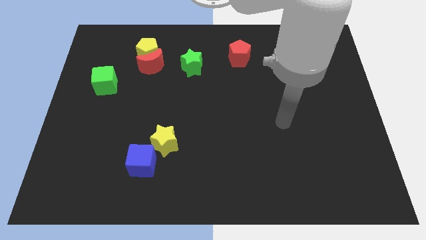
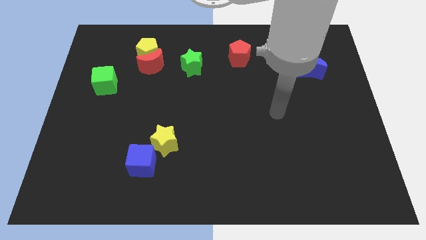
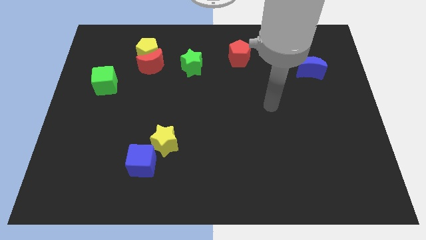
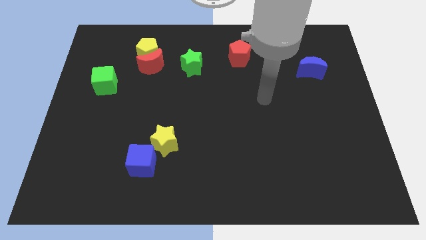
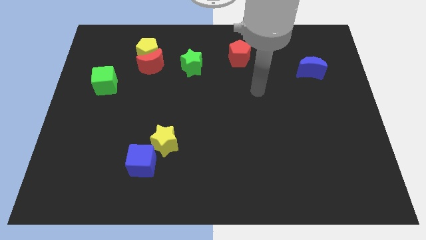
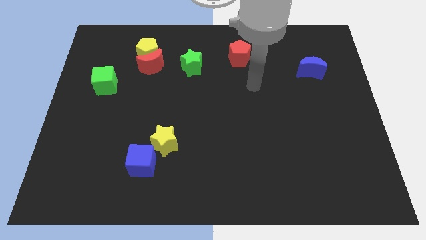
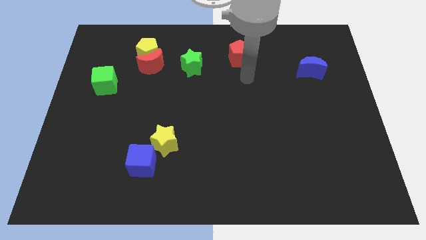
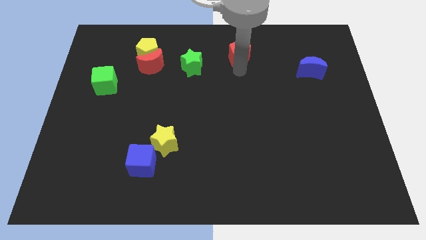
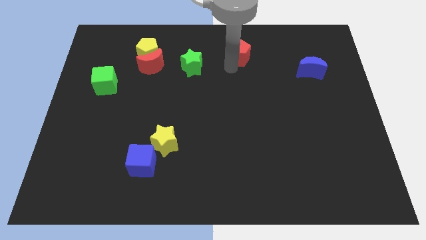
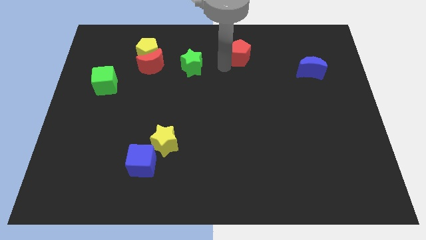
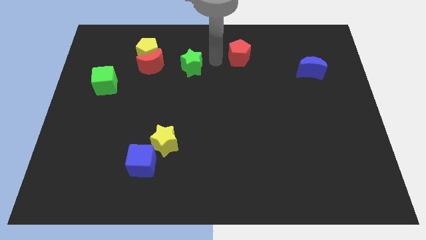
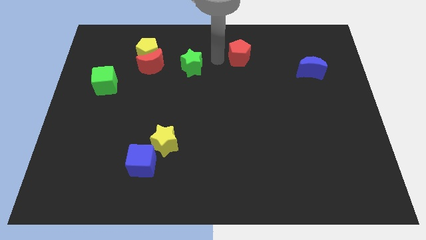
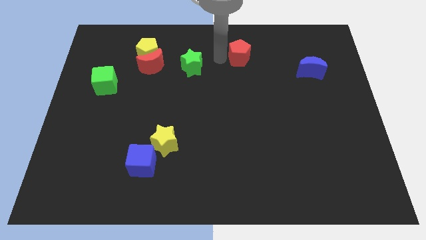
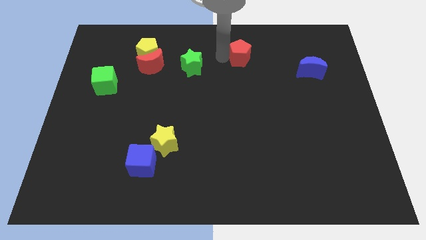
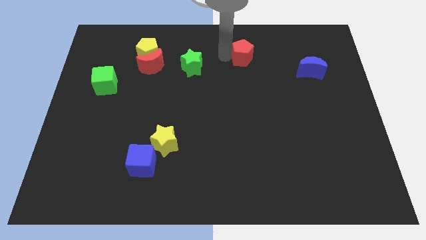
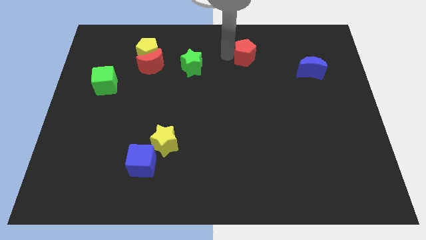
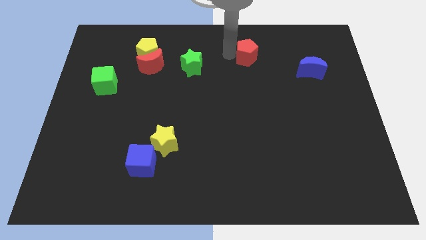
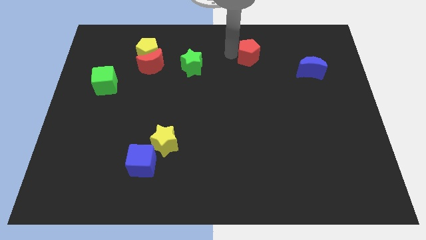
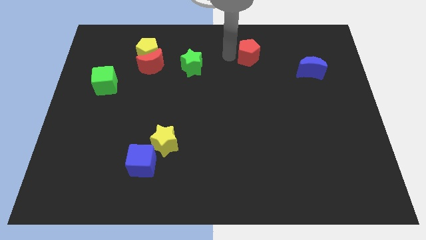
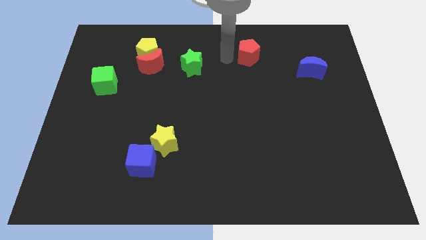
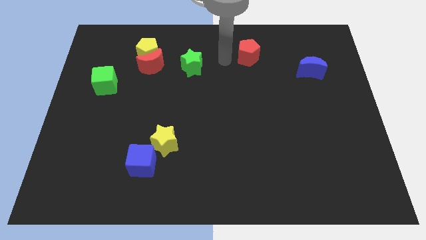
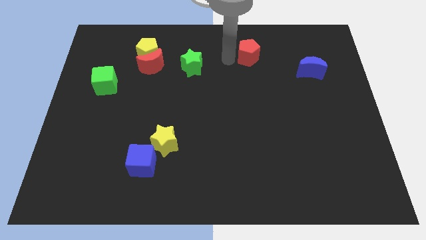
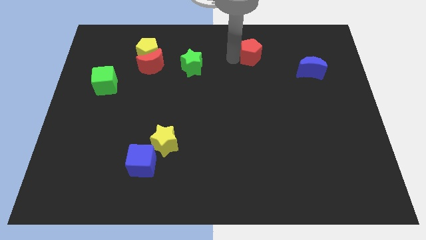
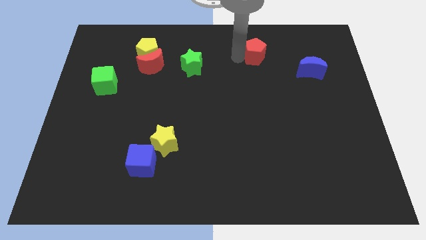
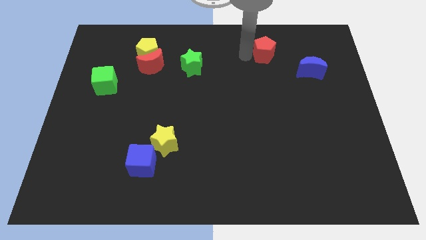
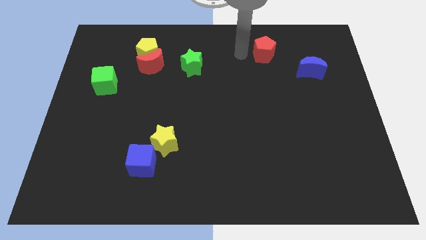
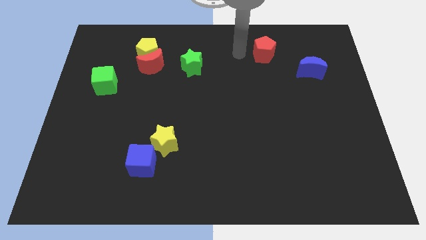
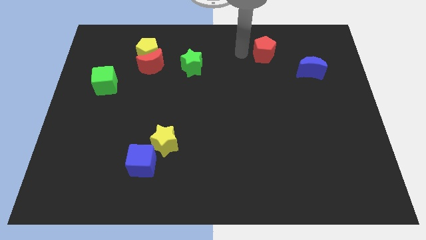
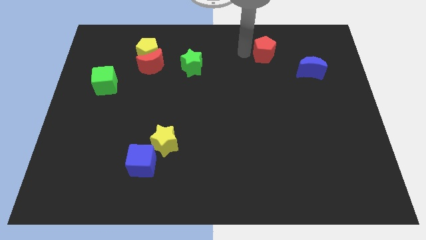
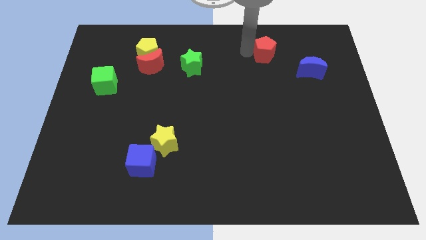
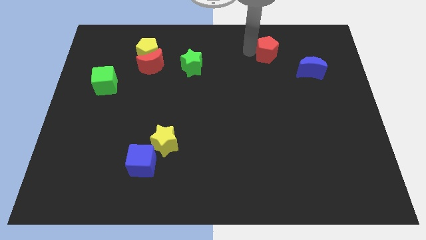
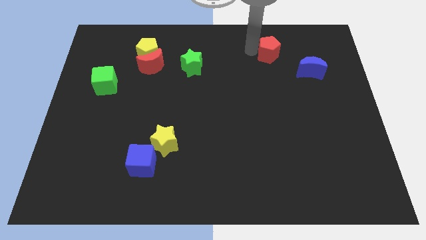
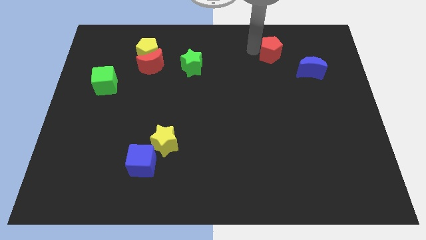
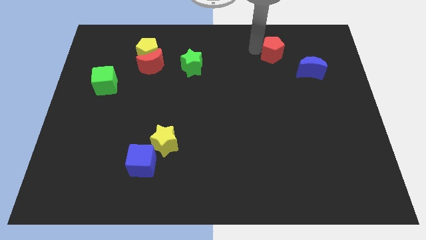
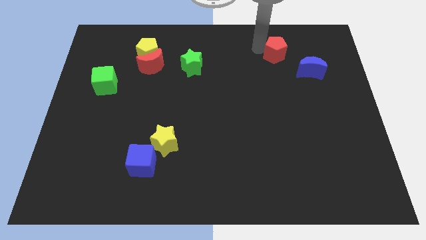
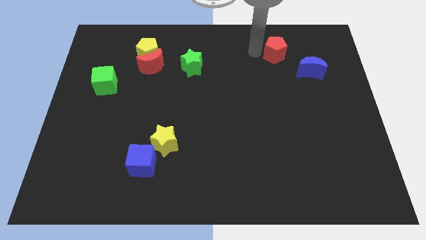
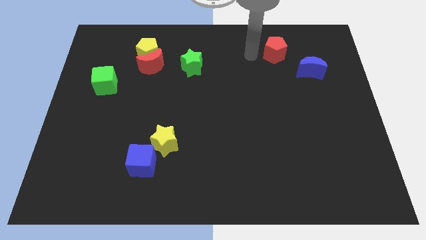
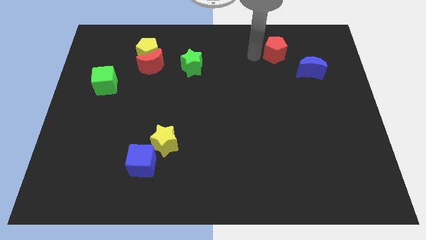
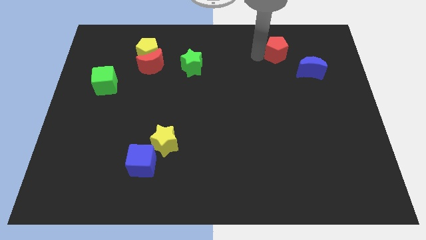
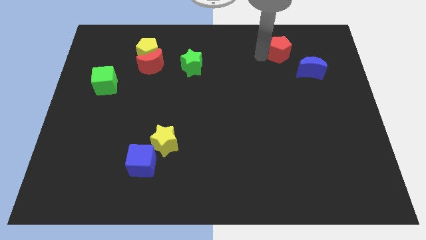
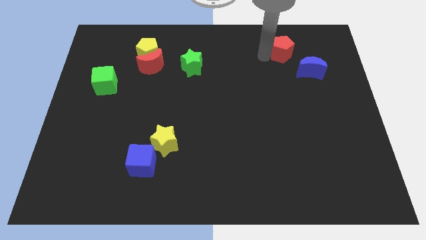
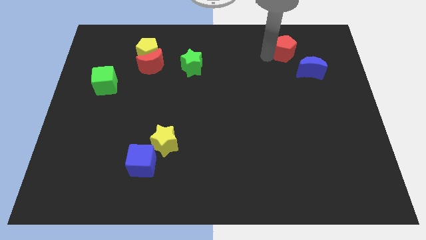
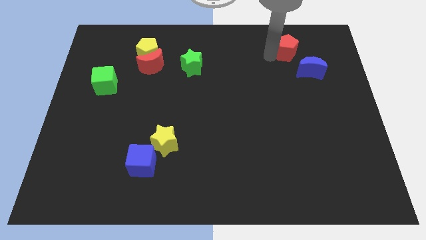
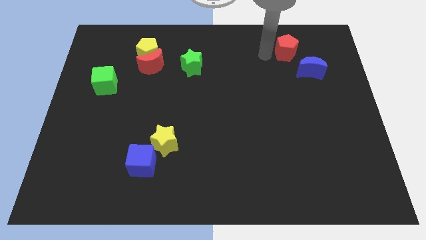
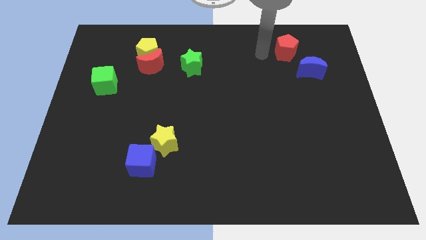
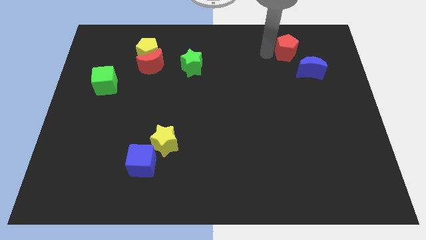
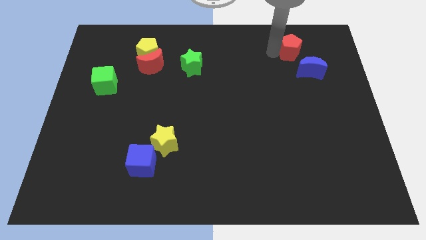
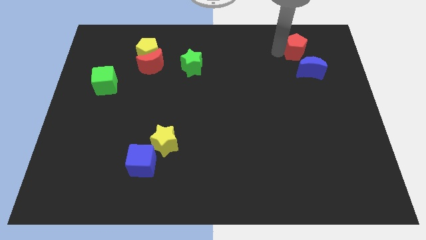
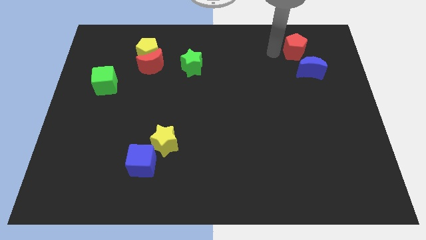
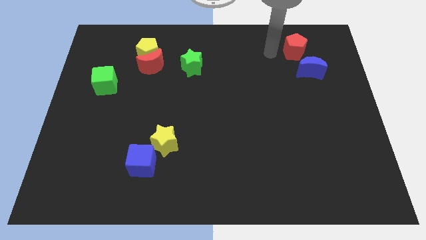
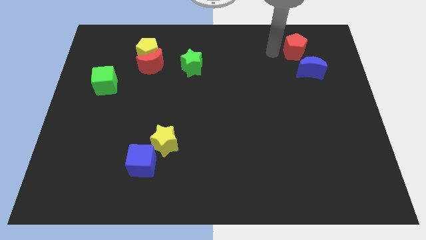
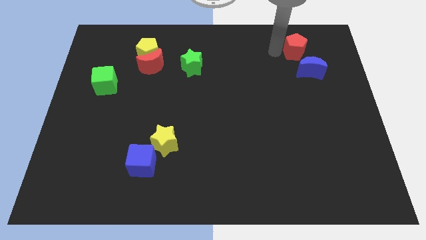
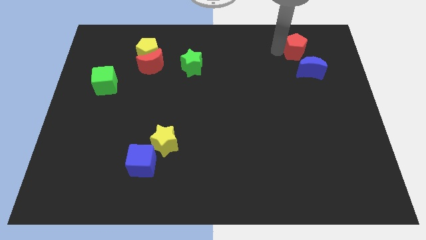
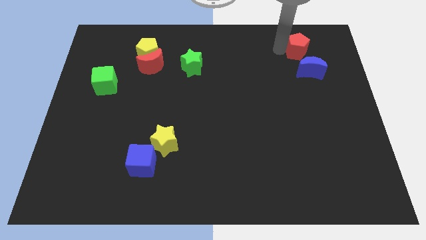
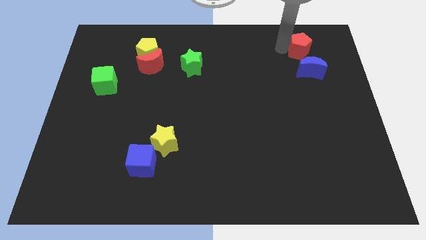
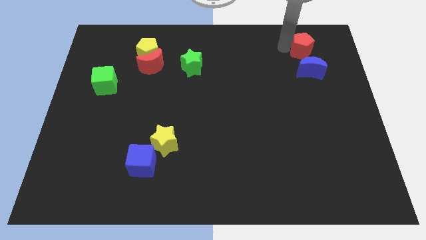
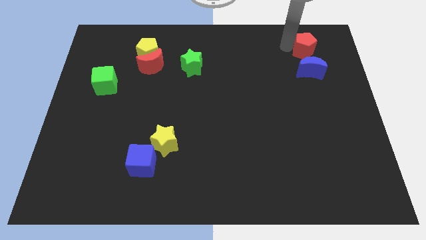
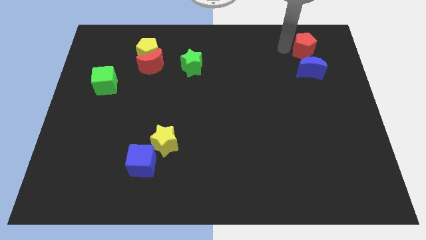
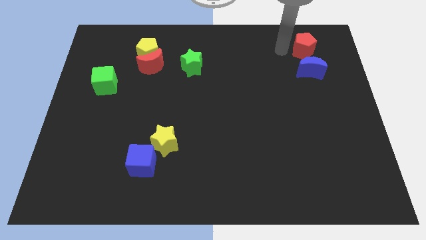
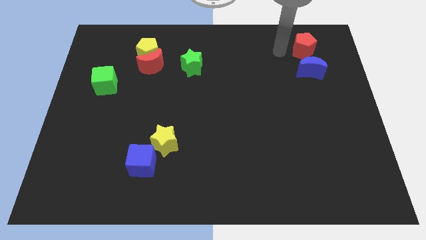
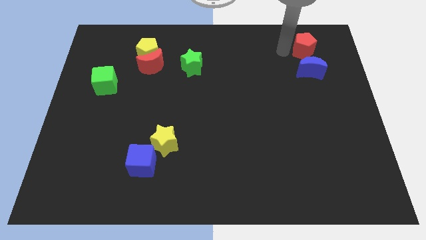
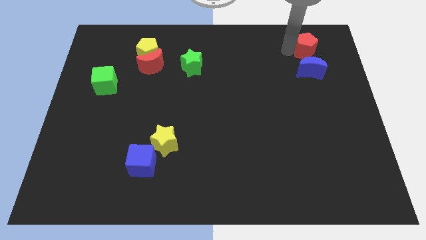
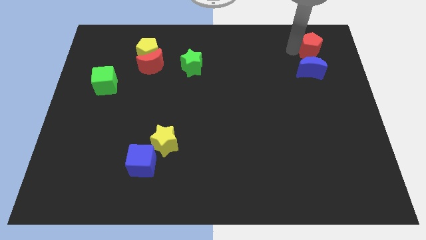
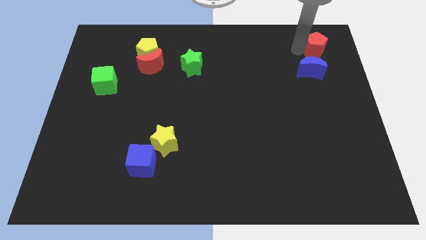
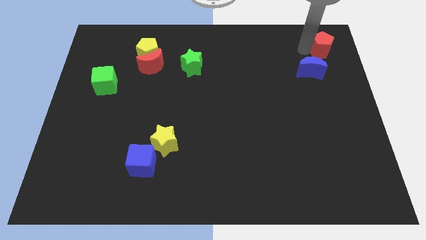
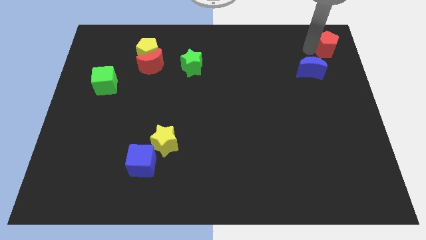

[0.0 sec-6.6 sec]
put the red pentagon to the upper right corner
